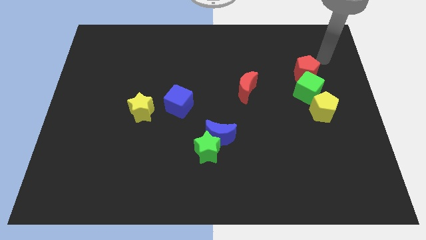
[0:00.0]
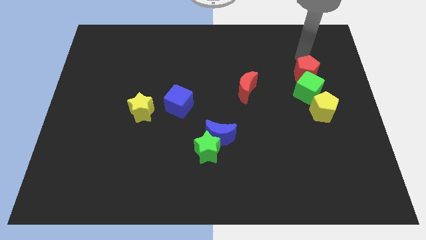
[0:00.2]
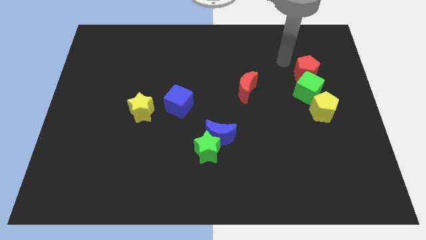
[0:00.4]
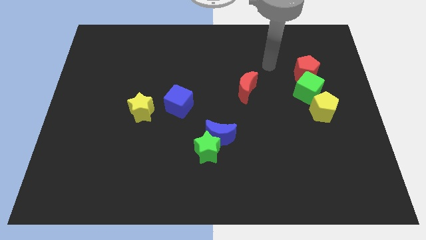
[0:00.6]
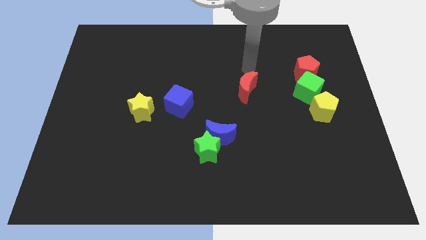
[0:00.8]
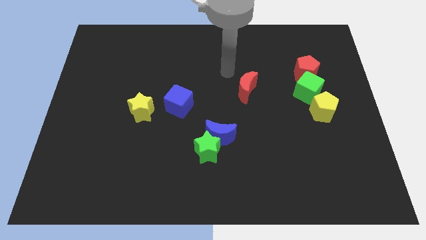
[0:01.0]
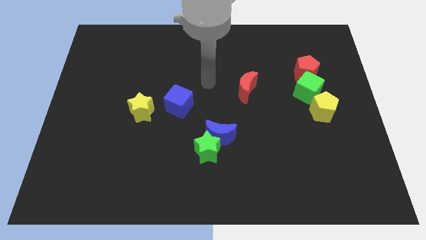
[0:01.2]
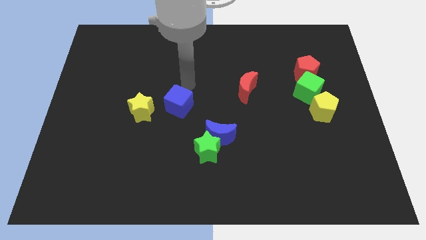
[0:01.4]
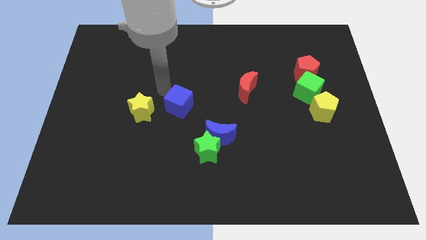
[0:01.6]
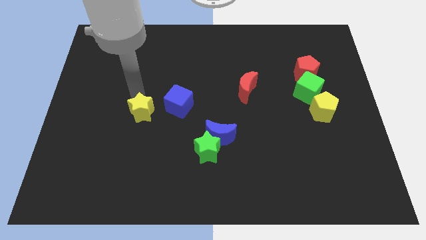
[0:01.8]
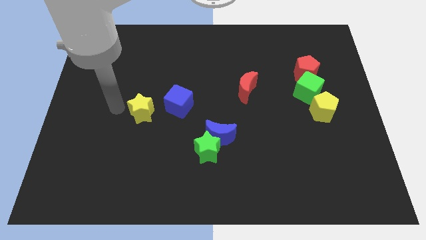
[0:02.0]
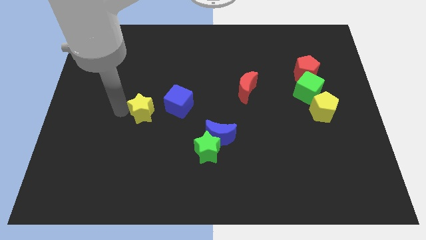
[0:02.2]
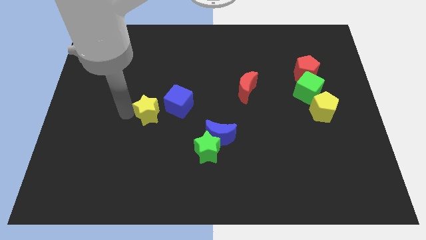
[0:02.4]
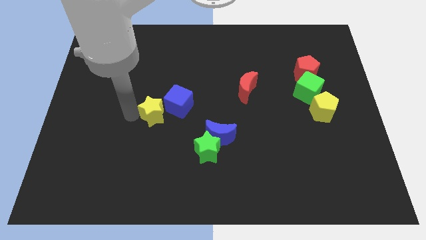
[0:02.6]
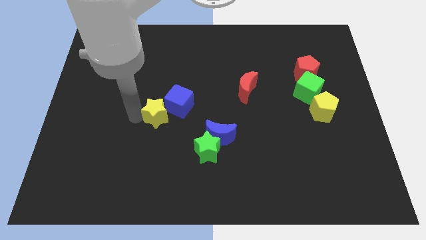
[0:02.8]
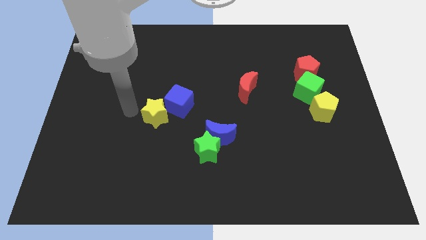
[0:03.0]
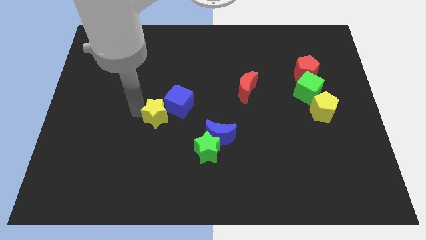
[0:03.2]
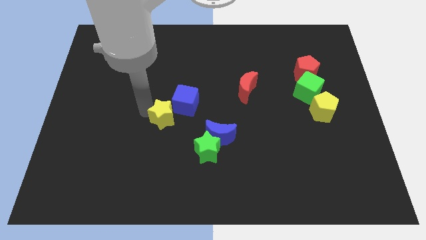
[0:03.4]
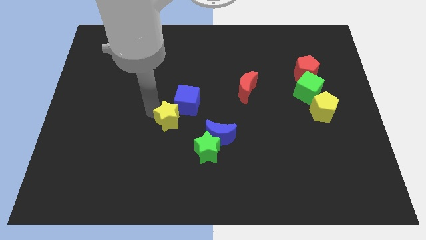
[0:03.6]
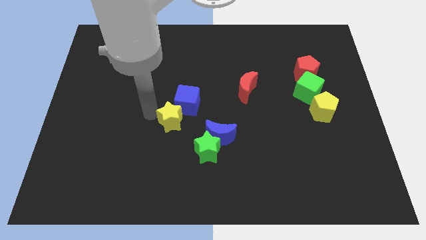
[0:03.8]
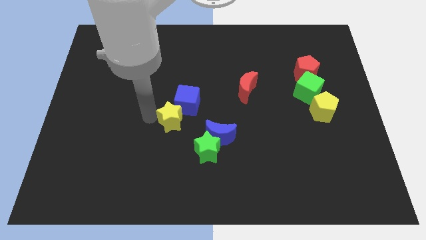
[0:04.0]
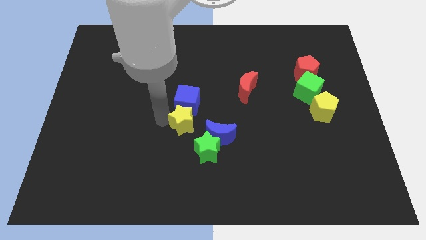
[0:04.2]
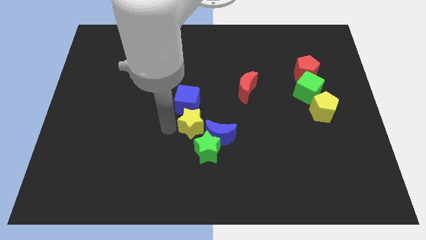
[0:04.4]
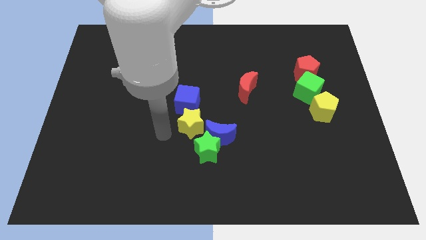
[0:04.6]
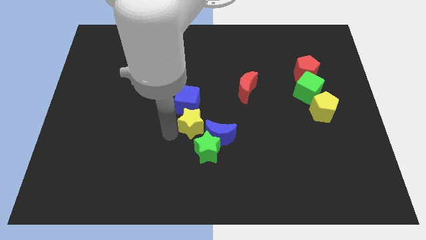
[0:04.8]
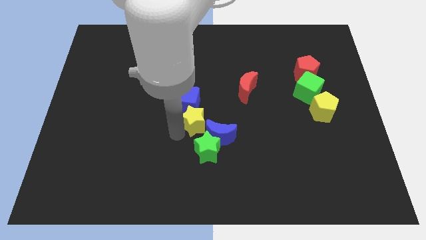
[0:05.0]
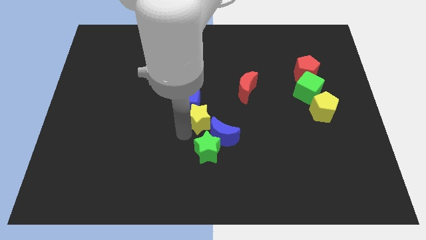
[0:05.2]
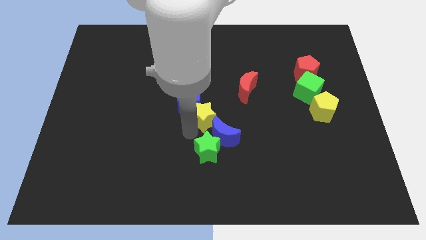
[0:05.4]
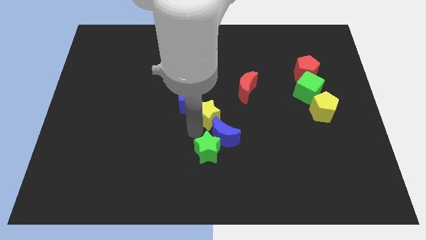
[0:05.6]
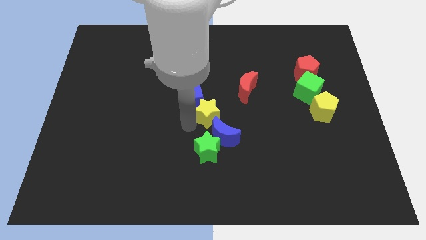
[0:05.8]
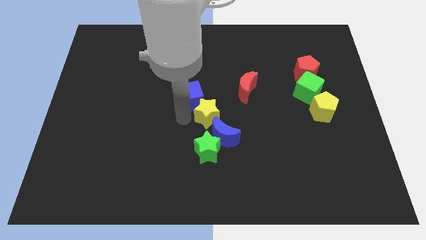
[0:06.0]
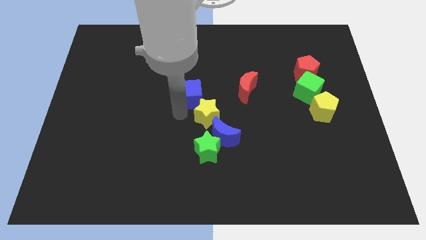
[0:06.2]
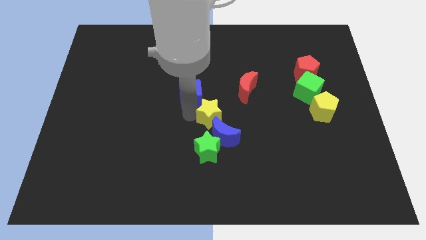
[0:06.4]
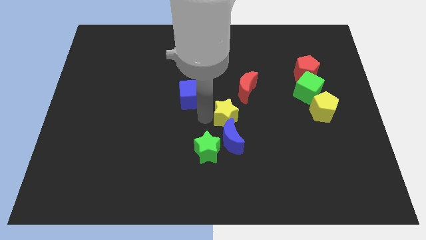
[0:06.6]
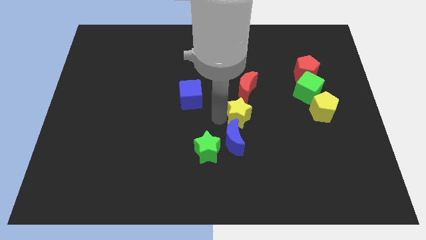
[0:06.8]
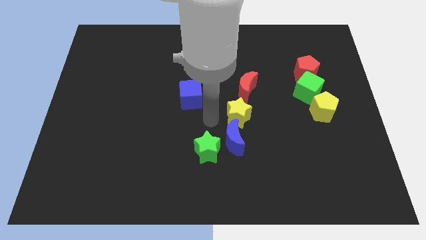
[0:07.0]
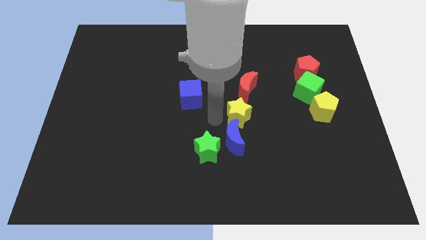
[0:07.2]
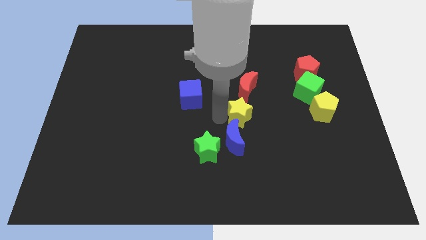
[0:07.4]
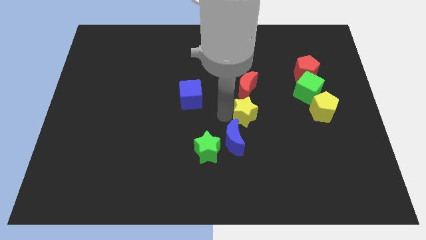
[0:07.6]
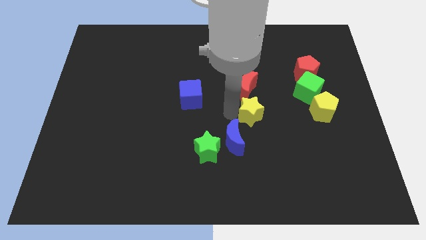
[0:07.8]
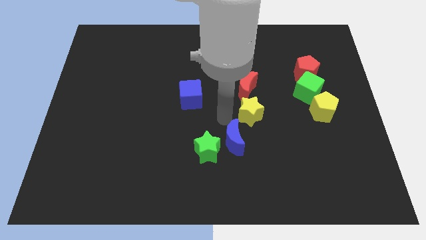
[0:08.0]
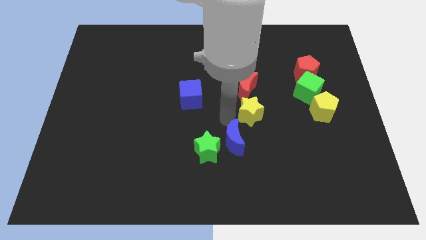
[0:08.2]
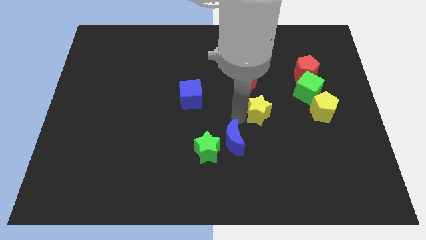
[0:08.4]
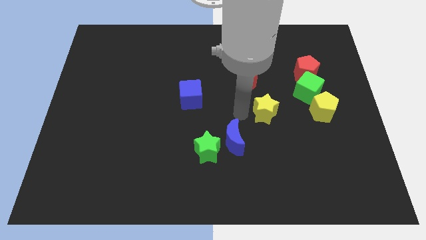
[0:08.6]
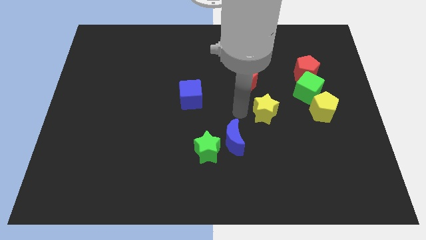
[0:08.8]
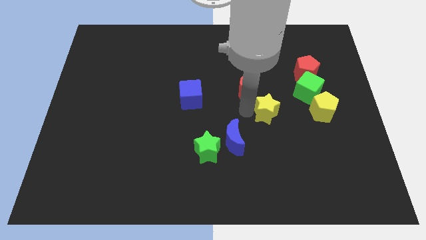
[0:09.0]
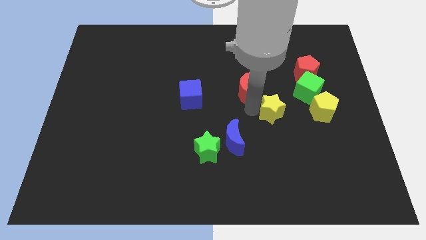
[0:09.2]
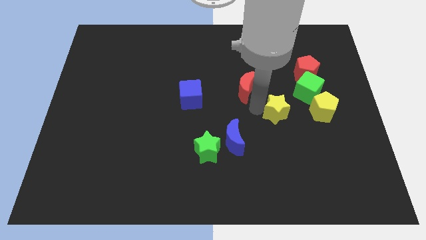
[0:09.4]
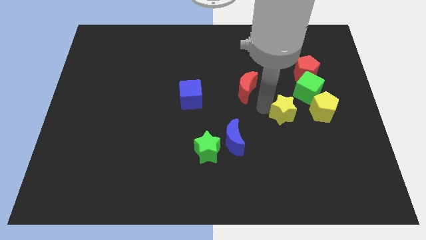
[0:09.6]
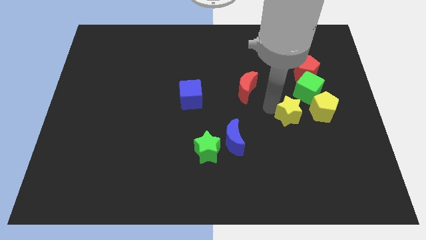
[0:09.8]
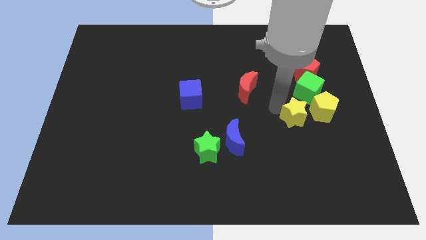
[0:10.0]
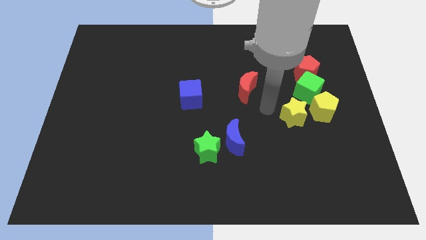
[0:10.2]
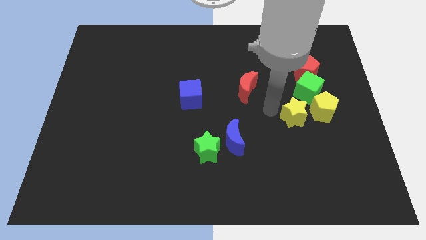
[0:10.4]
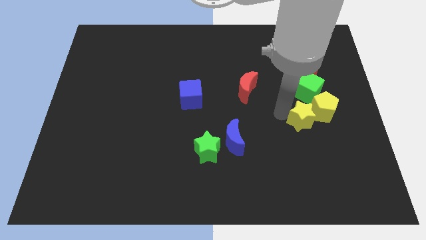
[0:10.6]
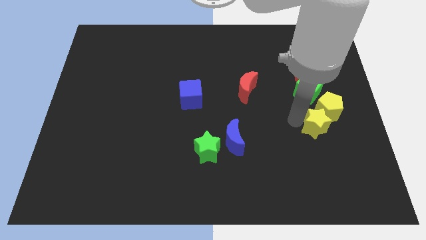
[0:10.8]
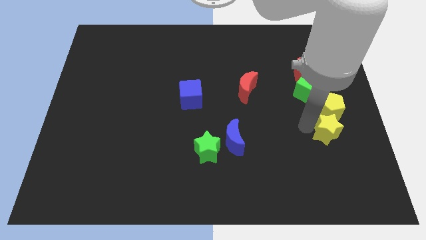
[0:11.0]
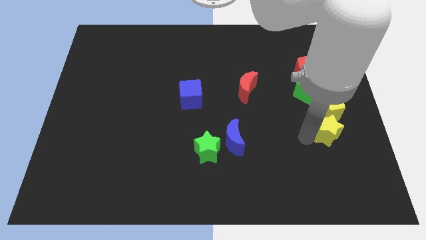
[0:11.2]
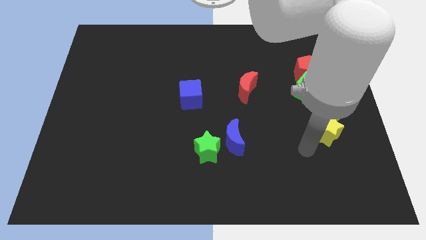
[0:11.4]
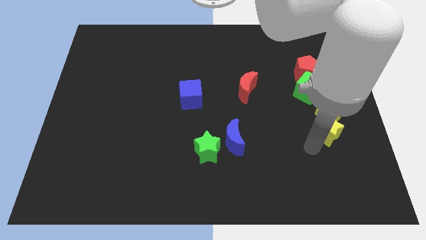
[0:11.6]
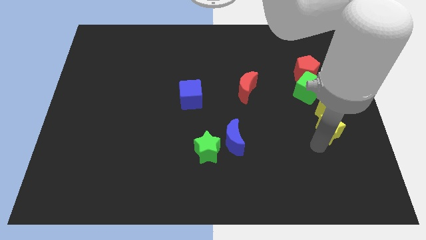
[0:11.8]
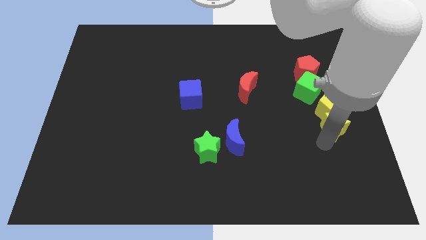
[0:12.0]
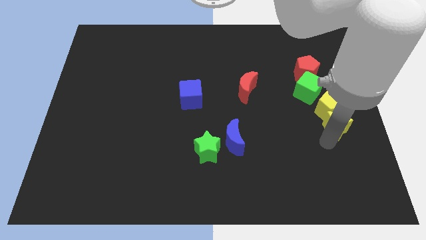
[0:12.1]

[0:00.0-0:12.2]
move the yellow star to the right side of the board
